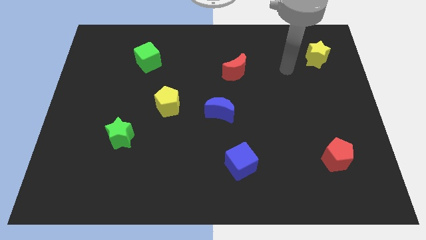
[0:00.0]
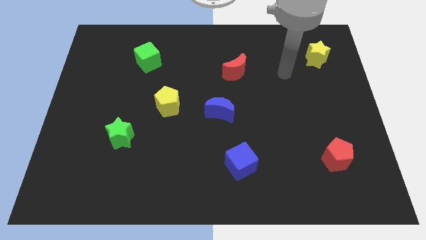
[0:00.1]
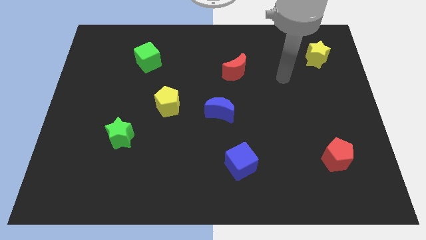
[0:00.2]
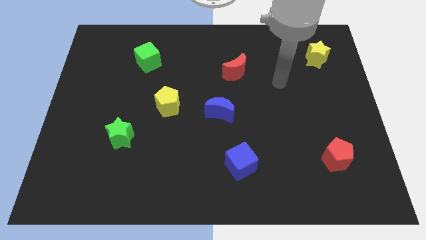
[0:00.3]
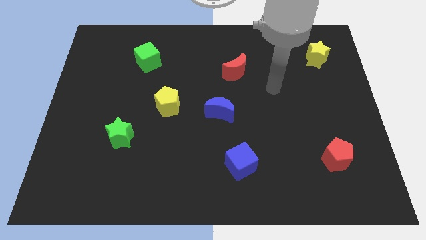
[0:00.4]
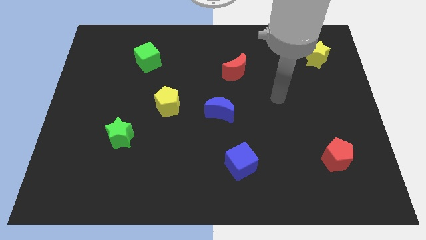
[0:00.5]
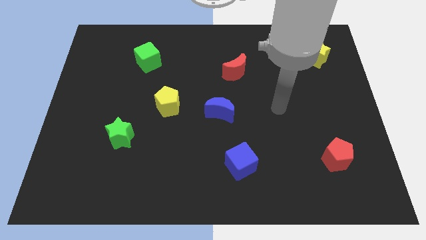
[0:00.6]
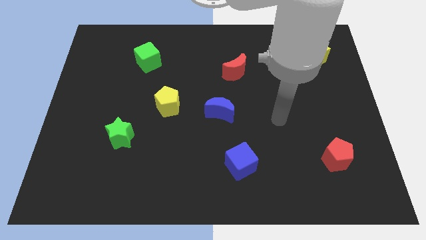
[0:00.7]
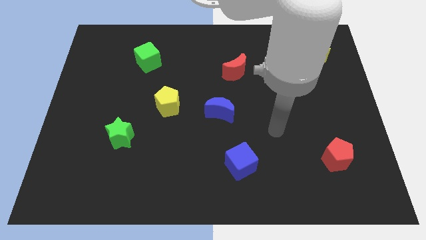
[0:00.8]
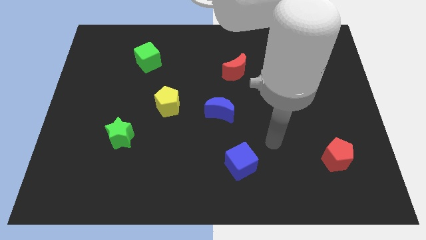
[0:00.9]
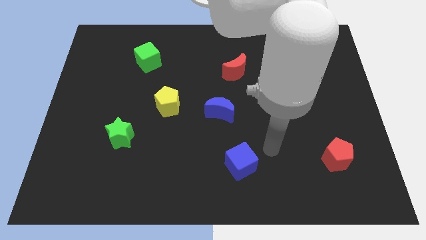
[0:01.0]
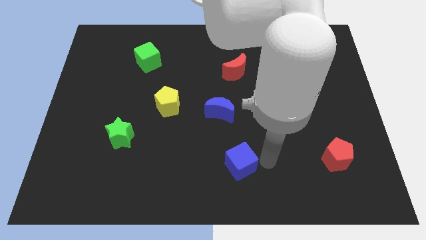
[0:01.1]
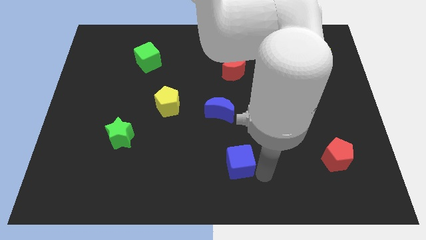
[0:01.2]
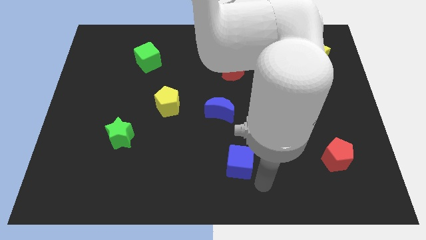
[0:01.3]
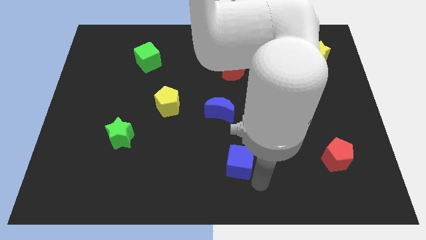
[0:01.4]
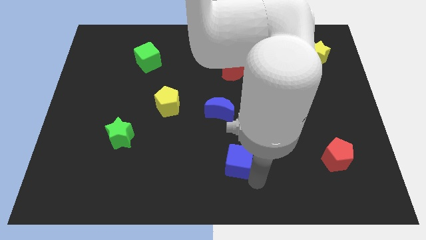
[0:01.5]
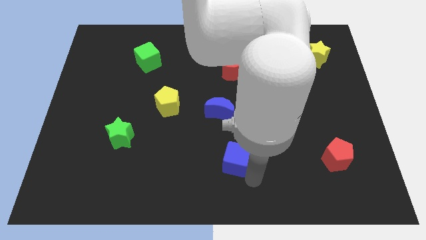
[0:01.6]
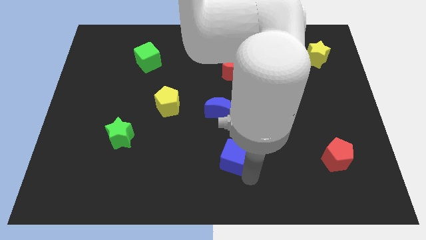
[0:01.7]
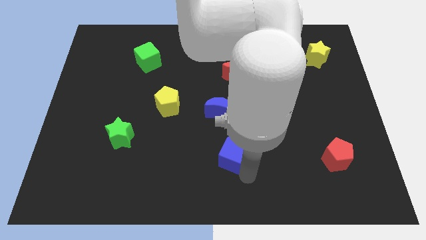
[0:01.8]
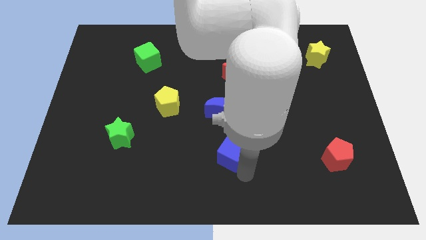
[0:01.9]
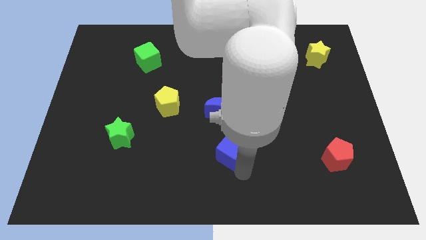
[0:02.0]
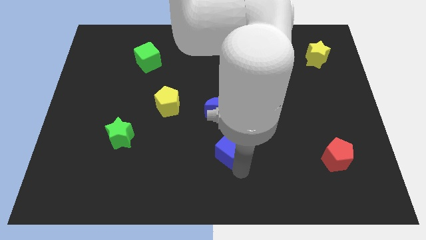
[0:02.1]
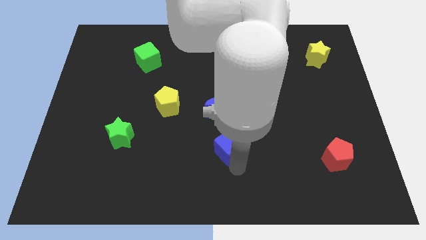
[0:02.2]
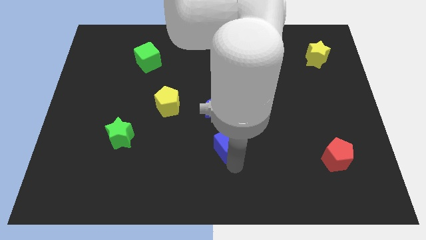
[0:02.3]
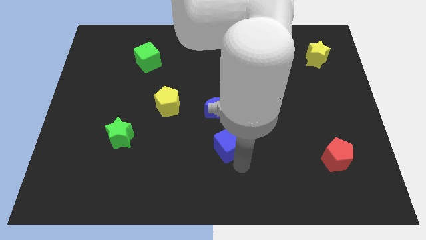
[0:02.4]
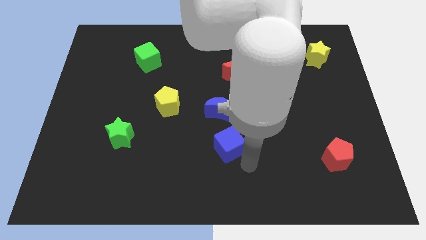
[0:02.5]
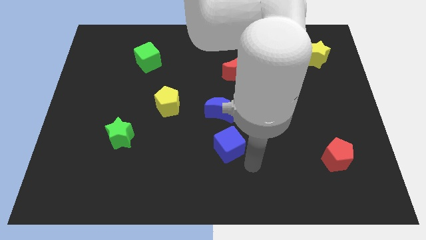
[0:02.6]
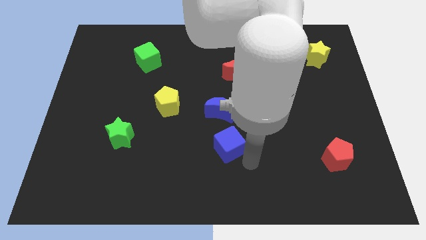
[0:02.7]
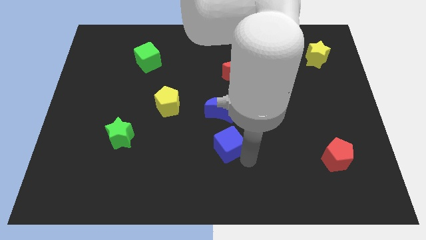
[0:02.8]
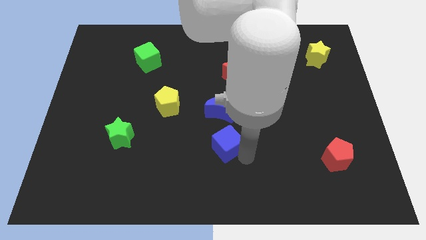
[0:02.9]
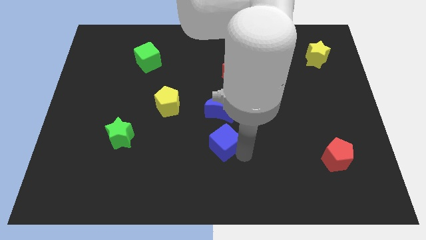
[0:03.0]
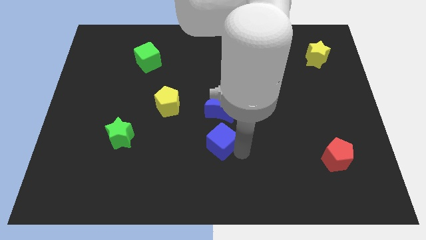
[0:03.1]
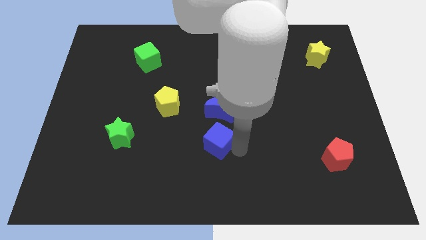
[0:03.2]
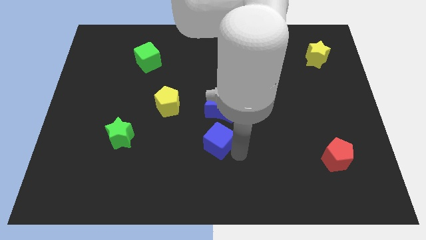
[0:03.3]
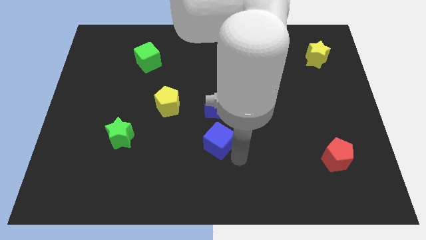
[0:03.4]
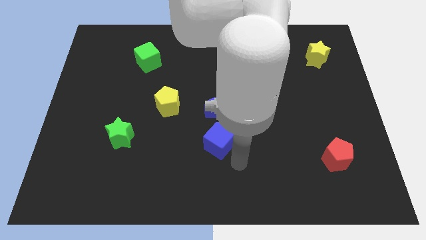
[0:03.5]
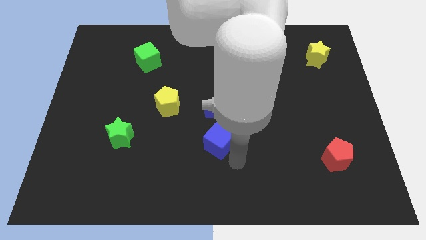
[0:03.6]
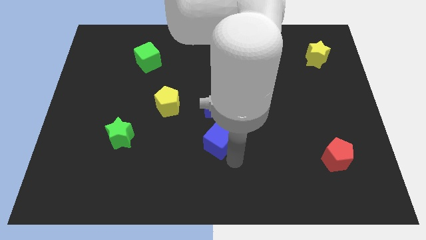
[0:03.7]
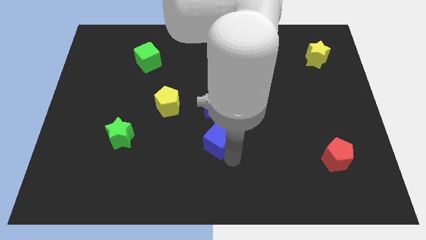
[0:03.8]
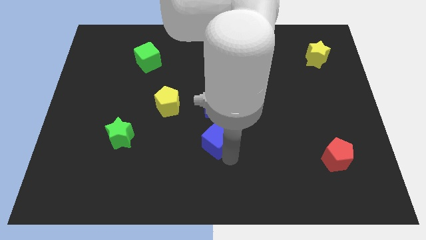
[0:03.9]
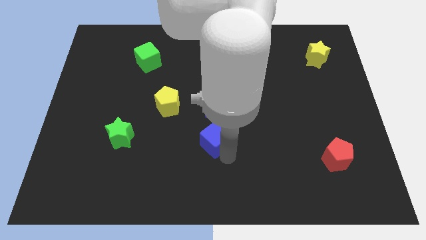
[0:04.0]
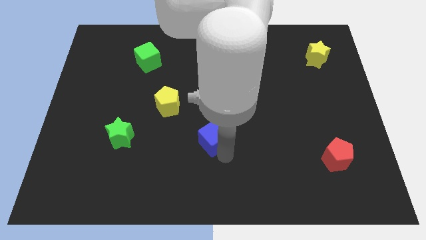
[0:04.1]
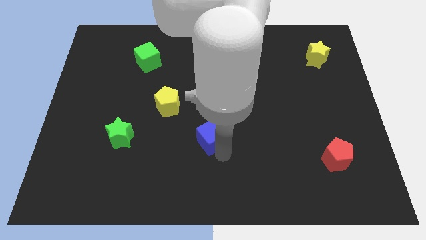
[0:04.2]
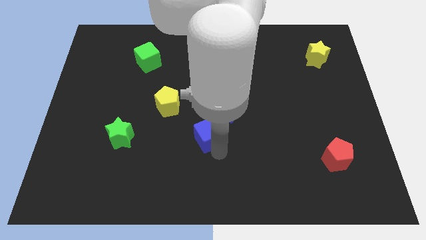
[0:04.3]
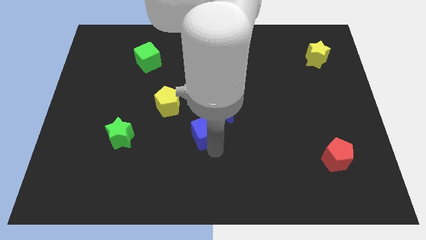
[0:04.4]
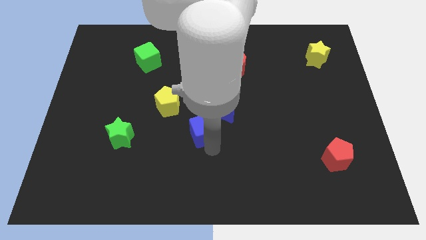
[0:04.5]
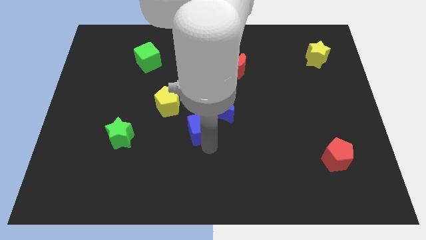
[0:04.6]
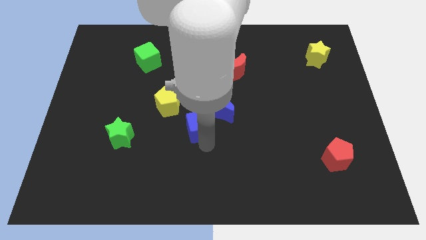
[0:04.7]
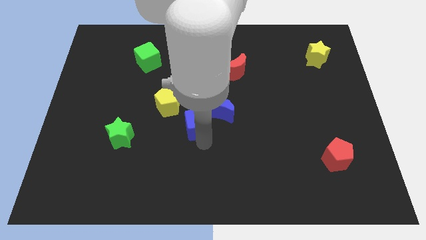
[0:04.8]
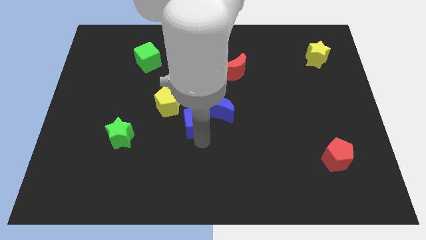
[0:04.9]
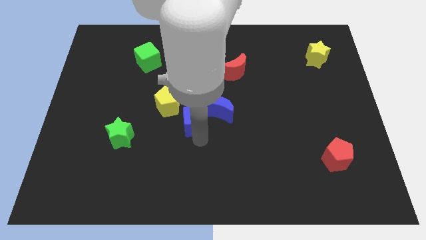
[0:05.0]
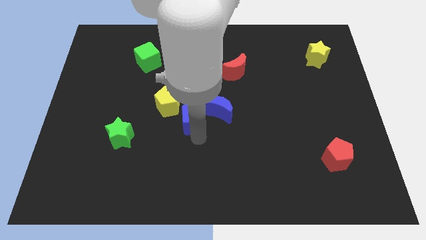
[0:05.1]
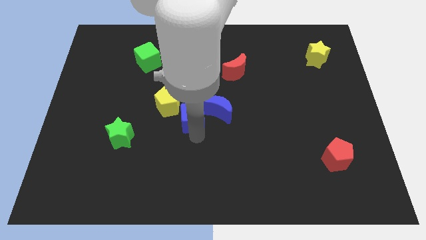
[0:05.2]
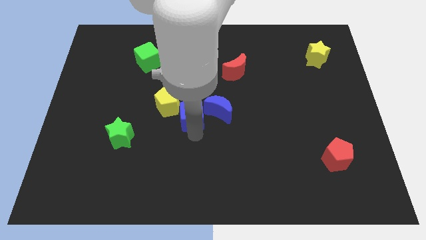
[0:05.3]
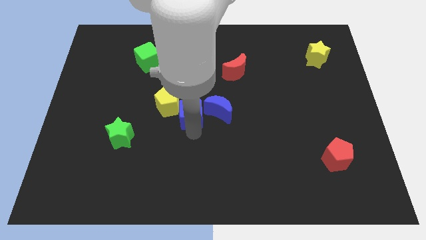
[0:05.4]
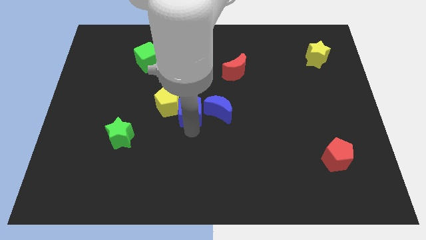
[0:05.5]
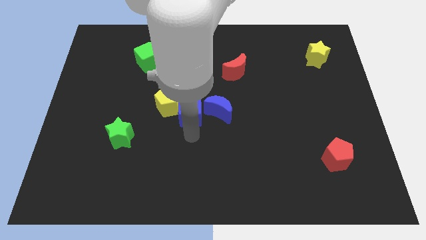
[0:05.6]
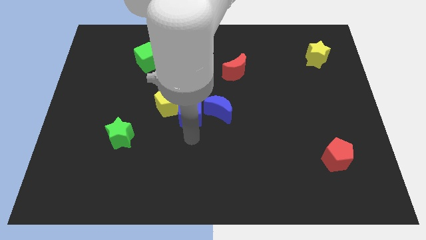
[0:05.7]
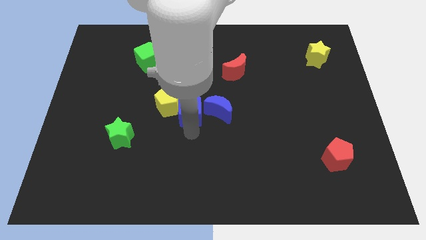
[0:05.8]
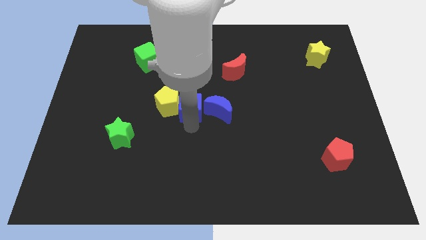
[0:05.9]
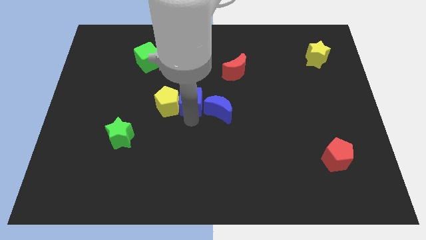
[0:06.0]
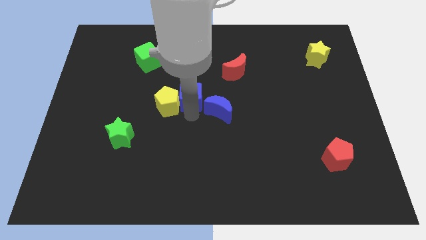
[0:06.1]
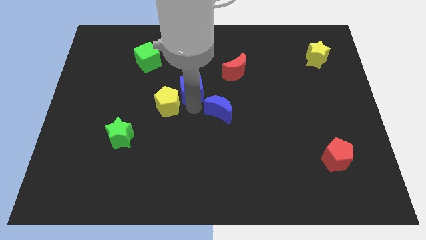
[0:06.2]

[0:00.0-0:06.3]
slide the blue cube up and to the left diagonally

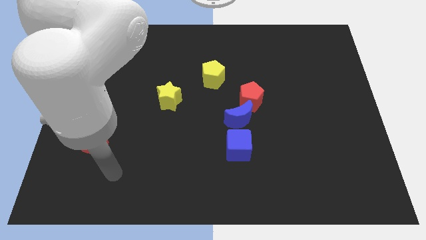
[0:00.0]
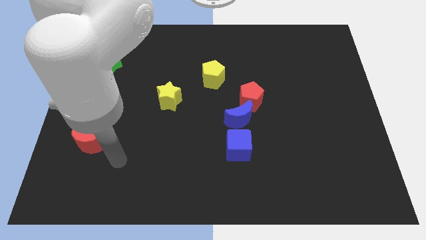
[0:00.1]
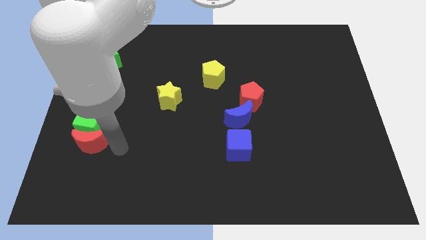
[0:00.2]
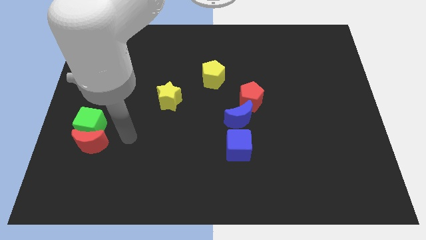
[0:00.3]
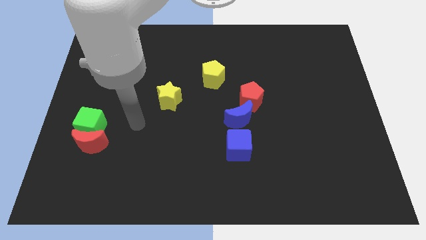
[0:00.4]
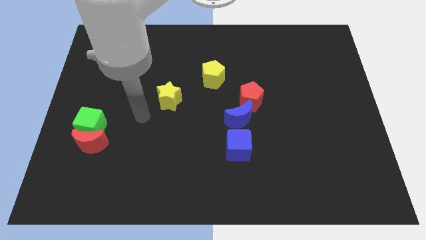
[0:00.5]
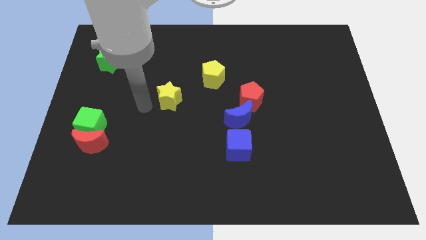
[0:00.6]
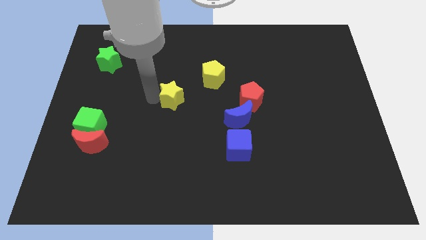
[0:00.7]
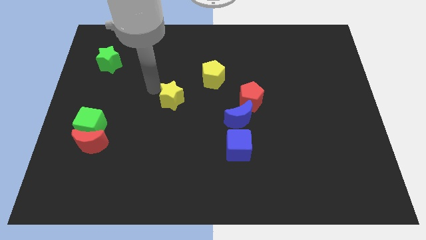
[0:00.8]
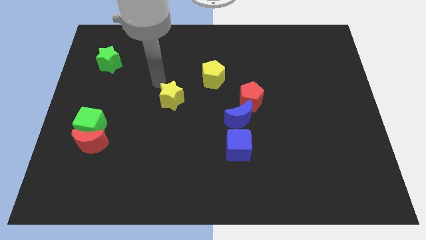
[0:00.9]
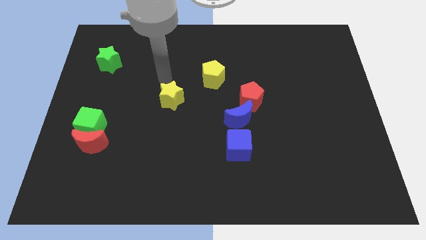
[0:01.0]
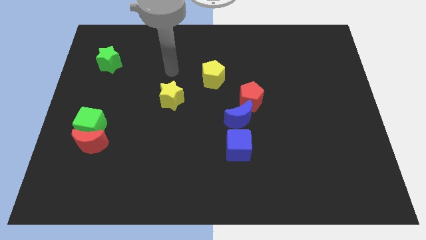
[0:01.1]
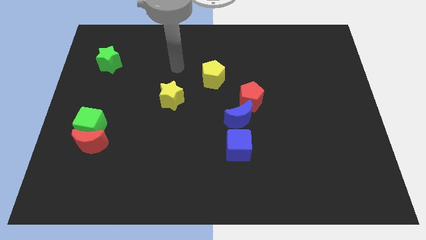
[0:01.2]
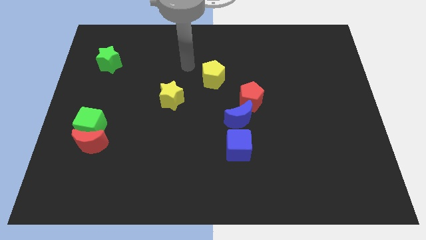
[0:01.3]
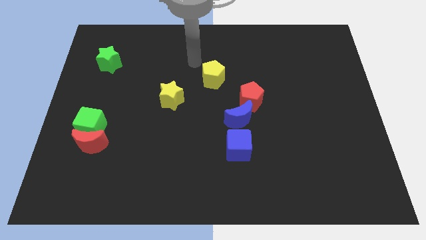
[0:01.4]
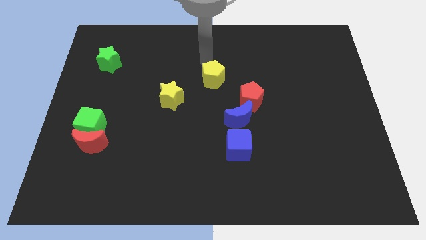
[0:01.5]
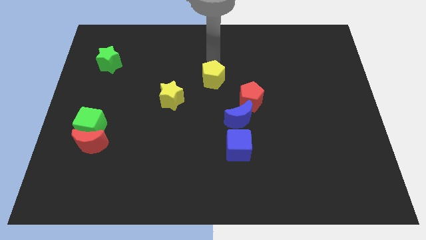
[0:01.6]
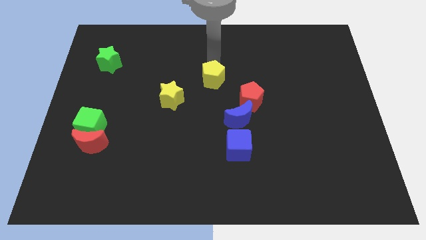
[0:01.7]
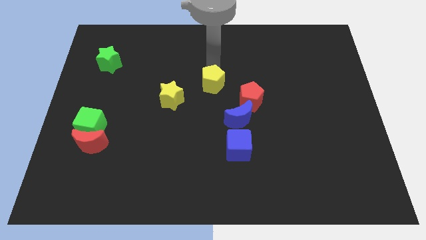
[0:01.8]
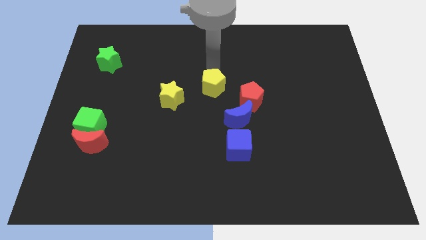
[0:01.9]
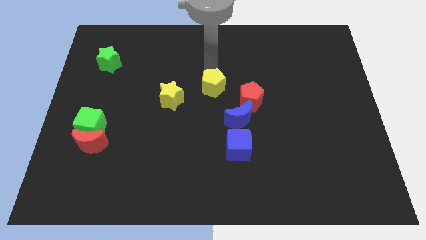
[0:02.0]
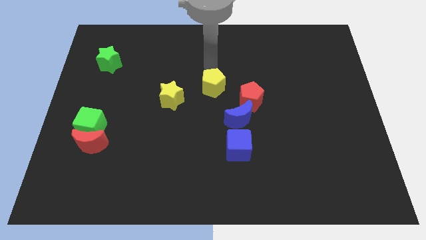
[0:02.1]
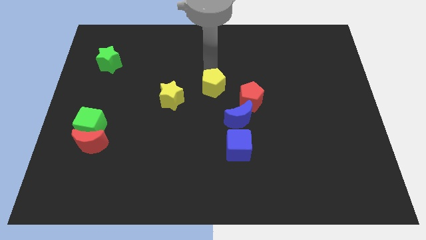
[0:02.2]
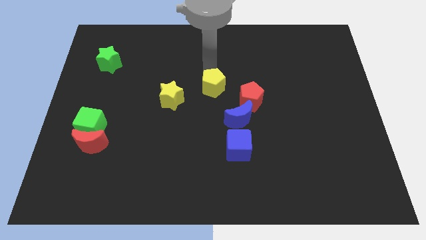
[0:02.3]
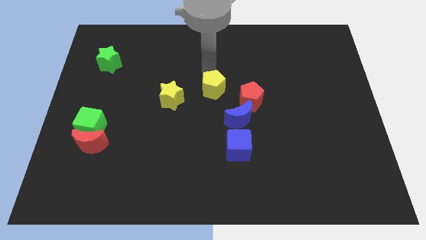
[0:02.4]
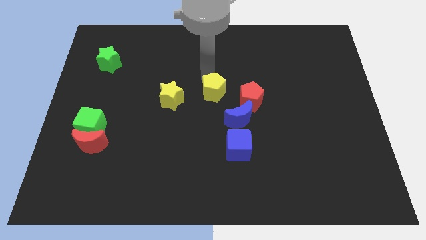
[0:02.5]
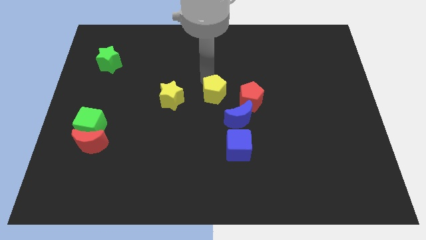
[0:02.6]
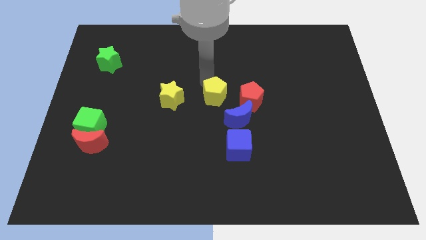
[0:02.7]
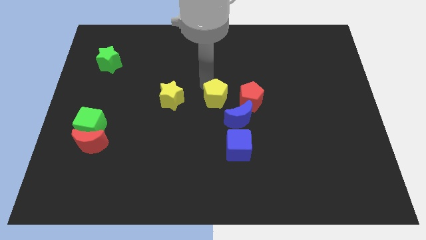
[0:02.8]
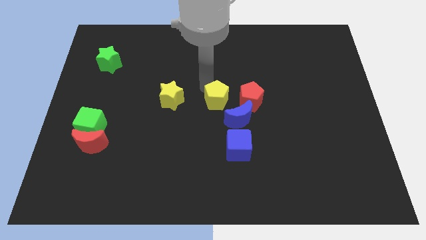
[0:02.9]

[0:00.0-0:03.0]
push the yellow pentagon down a bit
